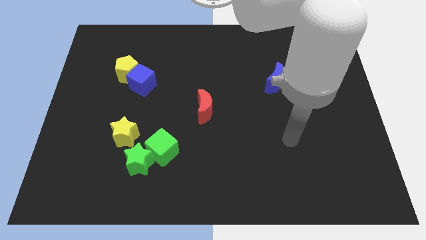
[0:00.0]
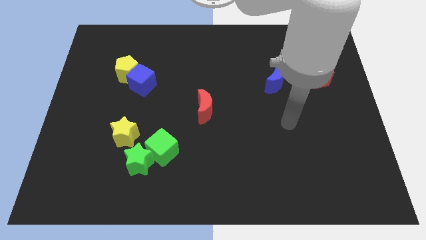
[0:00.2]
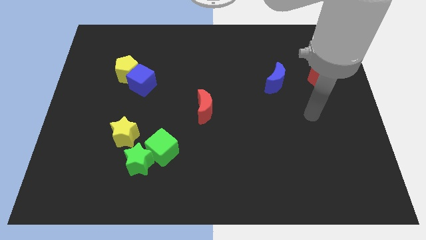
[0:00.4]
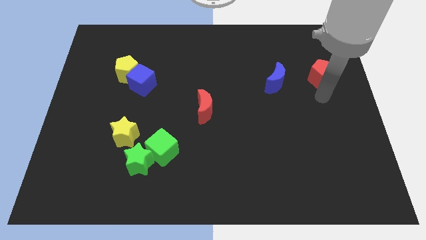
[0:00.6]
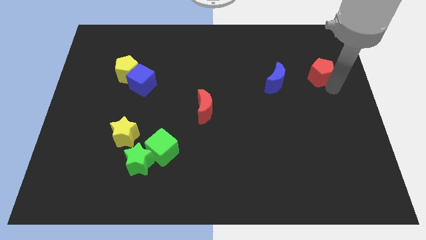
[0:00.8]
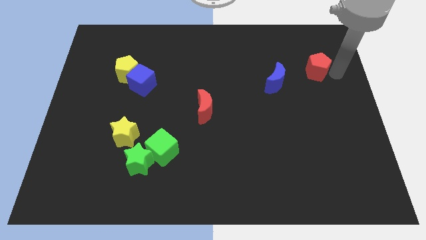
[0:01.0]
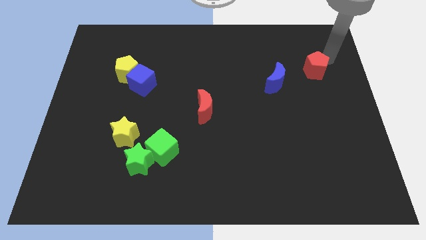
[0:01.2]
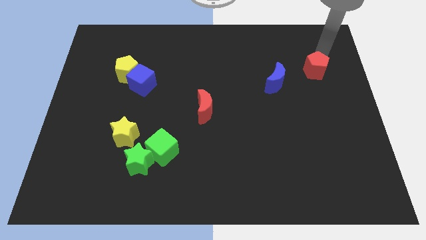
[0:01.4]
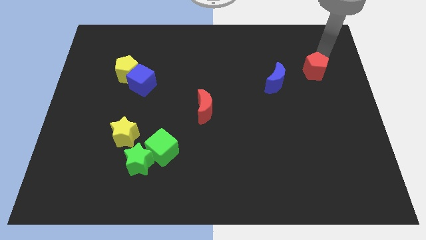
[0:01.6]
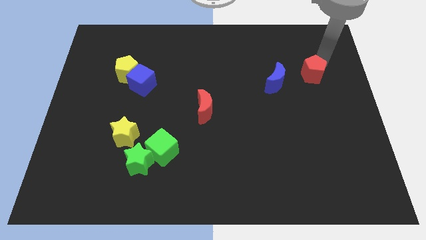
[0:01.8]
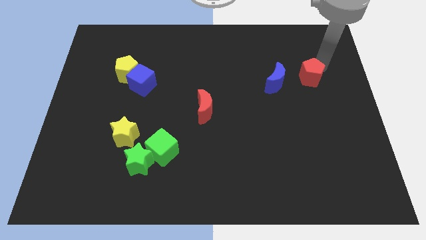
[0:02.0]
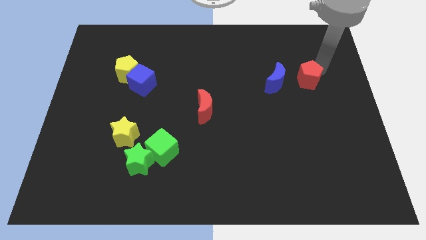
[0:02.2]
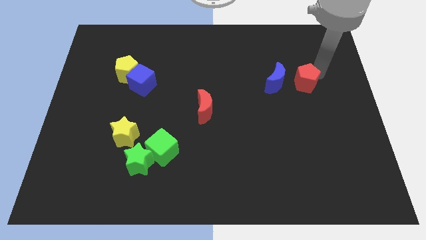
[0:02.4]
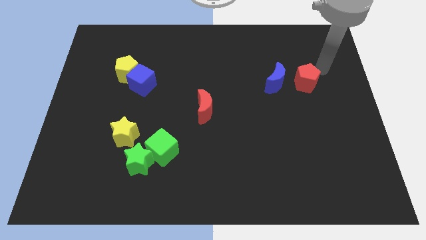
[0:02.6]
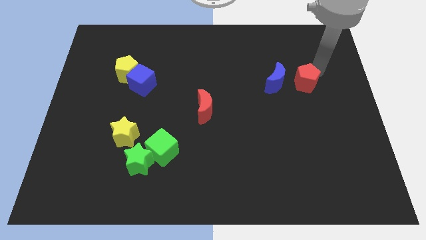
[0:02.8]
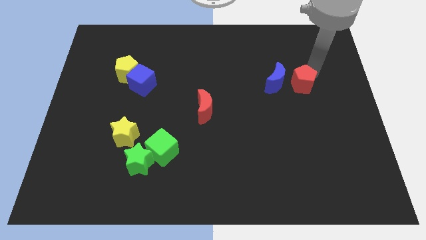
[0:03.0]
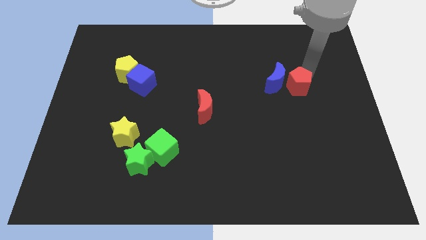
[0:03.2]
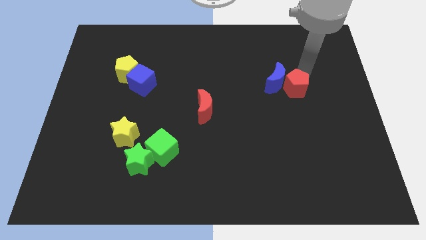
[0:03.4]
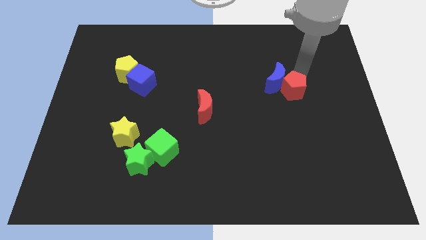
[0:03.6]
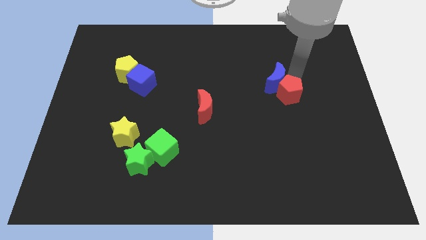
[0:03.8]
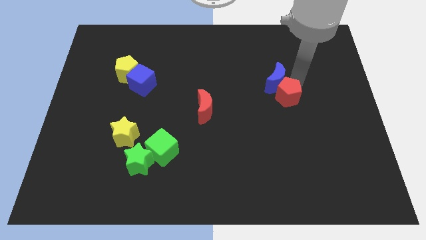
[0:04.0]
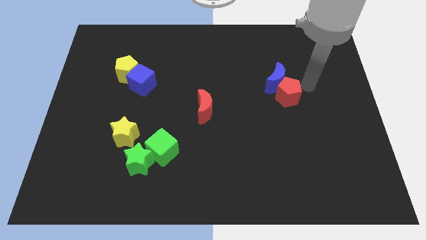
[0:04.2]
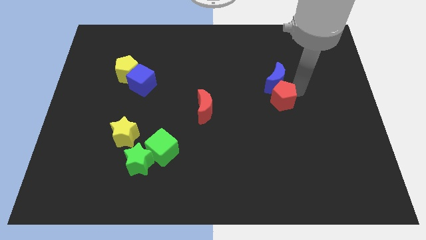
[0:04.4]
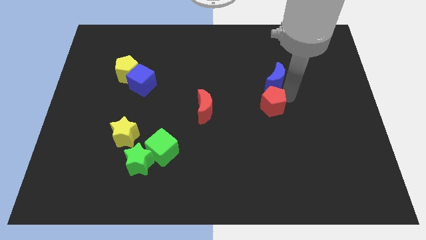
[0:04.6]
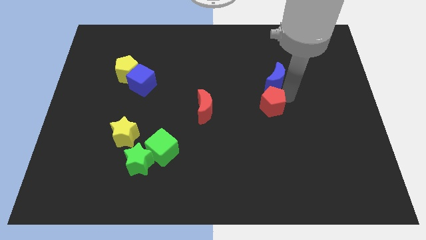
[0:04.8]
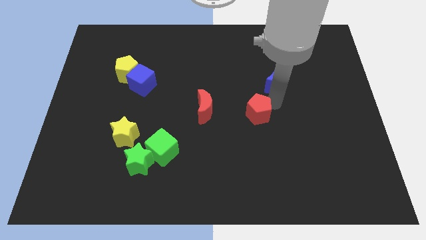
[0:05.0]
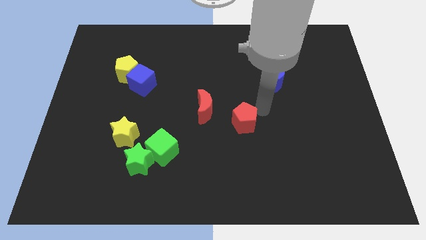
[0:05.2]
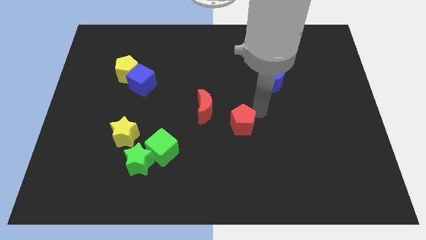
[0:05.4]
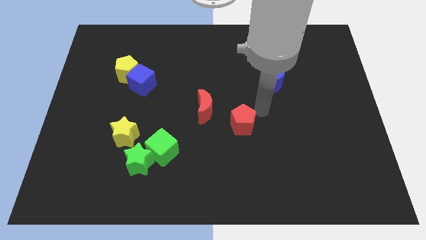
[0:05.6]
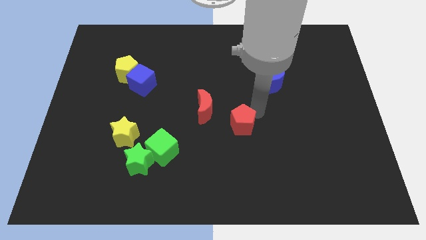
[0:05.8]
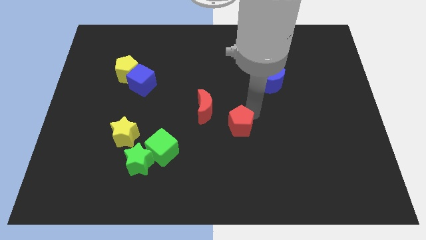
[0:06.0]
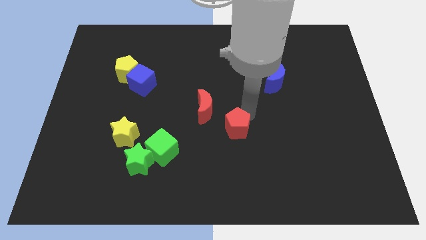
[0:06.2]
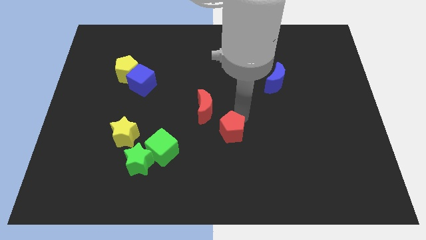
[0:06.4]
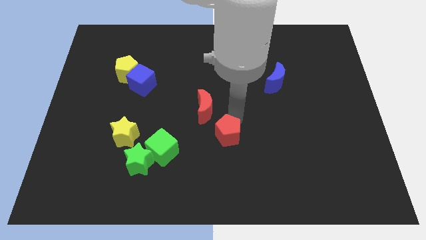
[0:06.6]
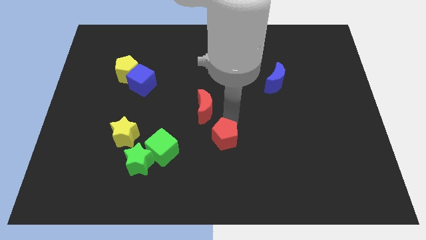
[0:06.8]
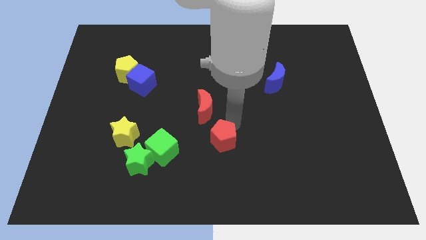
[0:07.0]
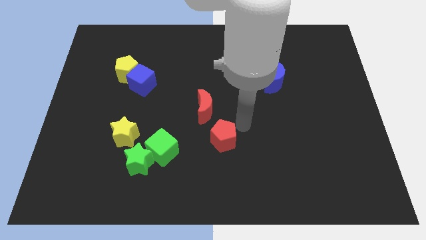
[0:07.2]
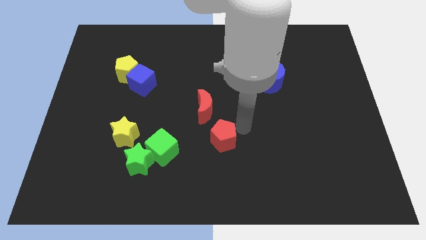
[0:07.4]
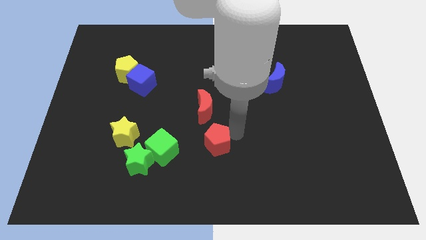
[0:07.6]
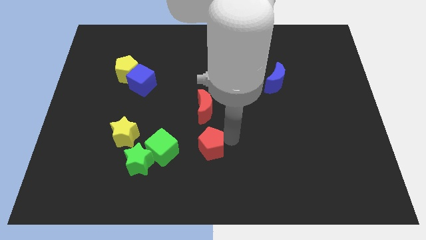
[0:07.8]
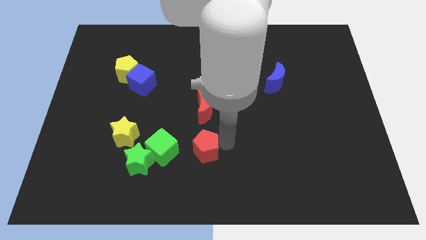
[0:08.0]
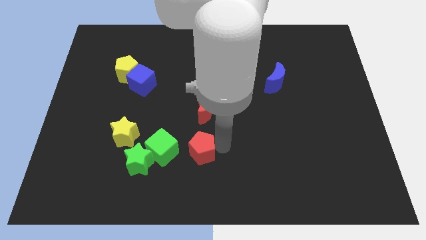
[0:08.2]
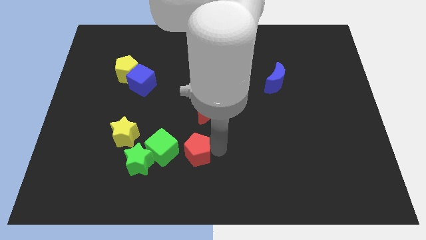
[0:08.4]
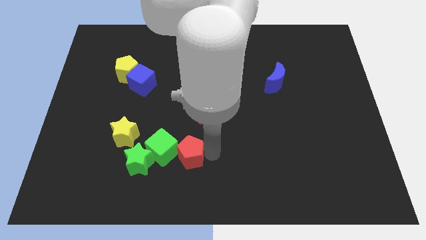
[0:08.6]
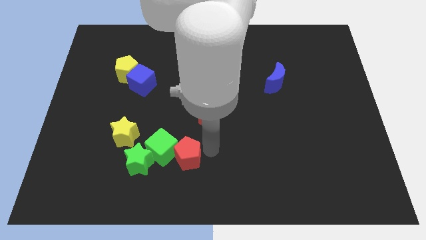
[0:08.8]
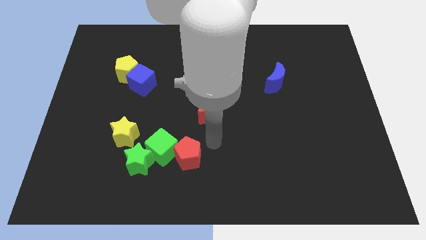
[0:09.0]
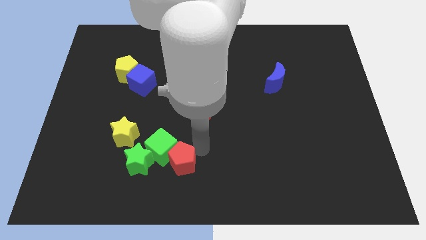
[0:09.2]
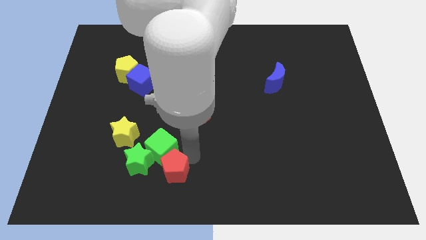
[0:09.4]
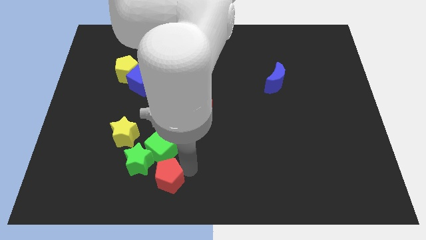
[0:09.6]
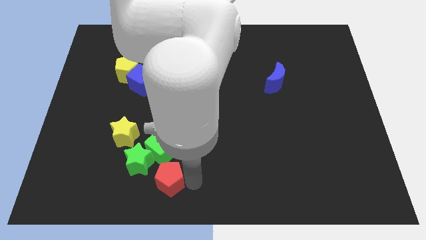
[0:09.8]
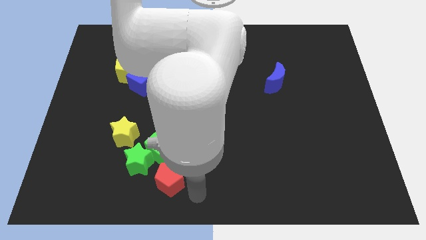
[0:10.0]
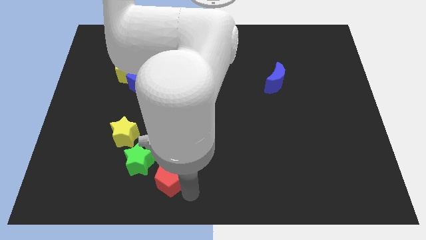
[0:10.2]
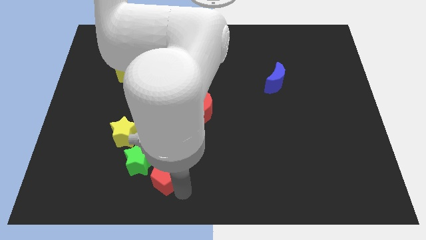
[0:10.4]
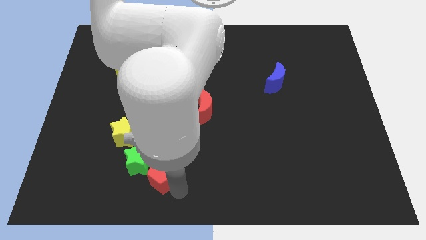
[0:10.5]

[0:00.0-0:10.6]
put the red pentagon towards the green star

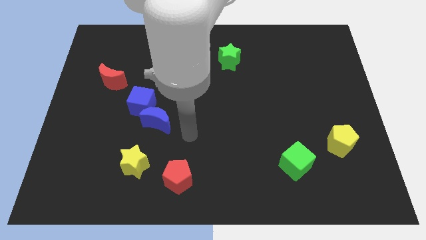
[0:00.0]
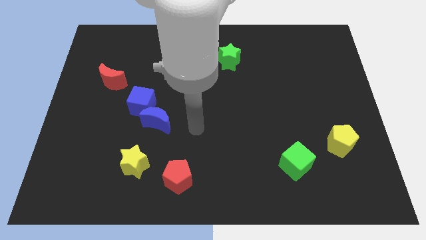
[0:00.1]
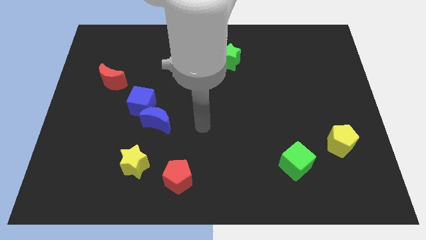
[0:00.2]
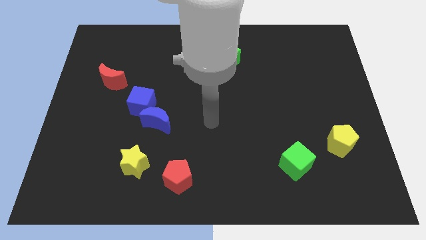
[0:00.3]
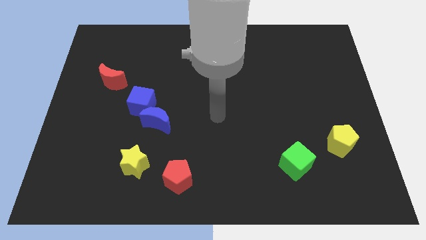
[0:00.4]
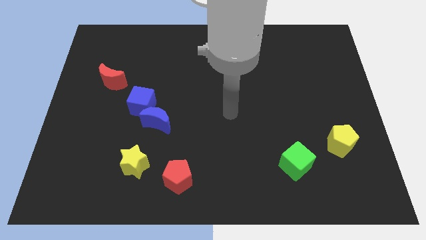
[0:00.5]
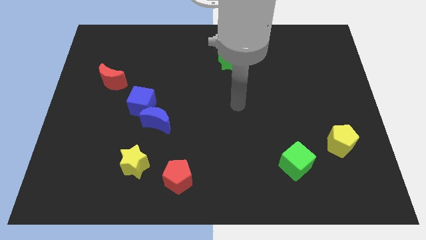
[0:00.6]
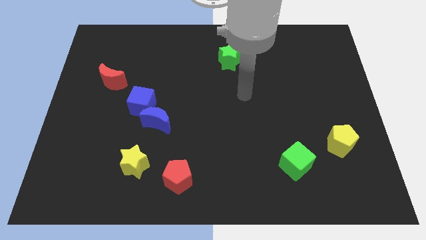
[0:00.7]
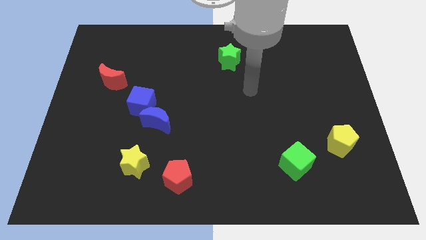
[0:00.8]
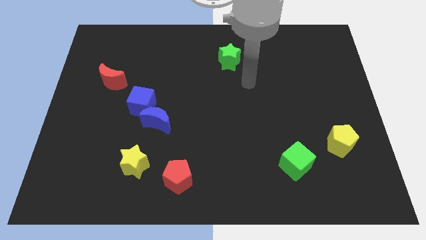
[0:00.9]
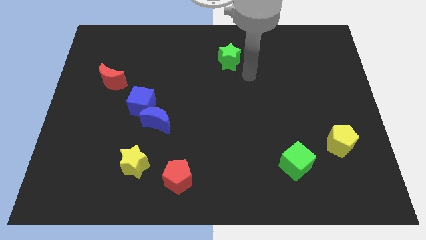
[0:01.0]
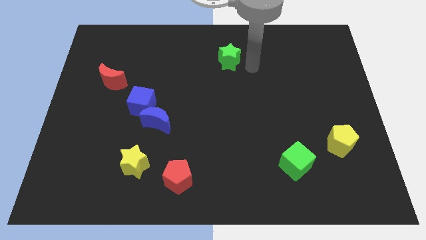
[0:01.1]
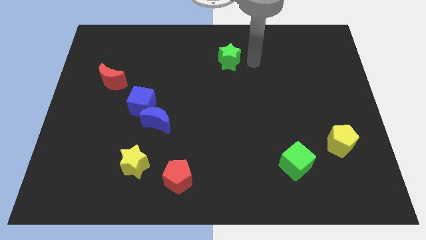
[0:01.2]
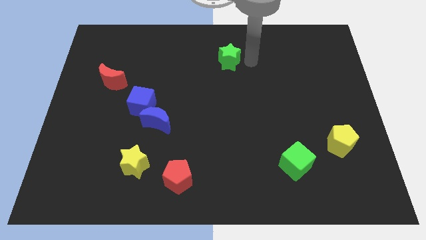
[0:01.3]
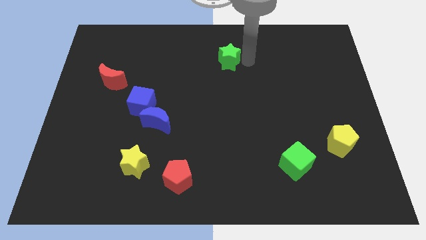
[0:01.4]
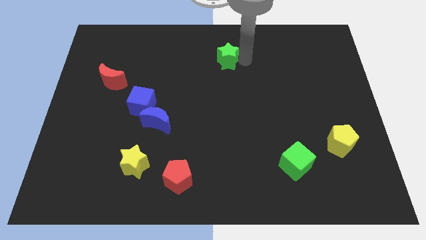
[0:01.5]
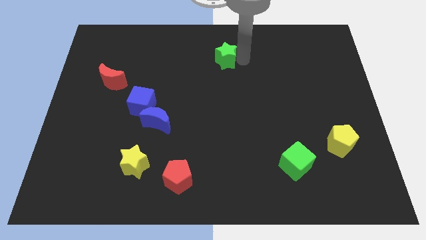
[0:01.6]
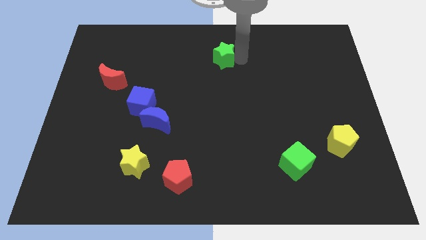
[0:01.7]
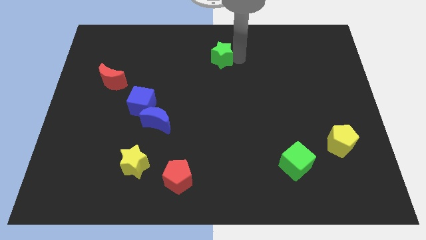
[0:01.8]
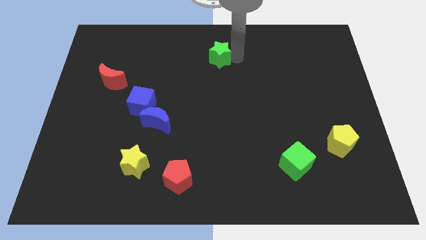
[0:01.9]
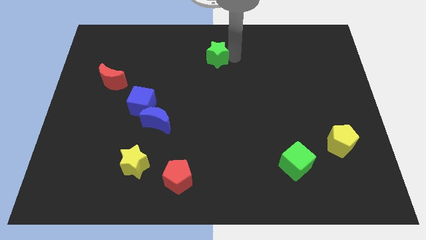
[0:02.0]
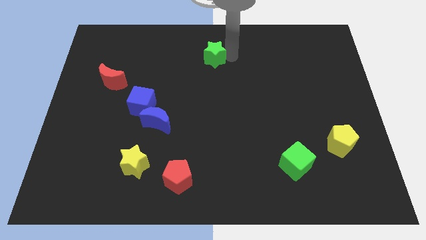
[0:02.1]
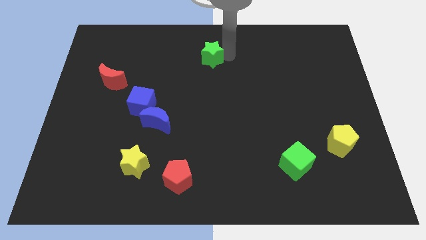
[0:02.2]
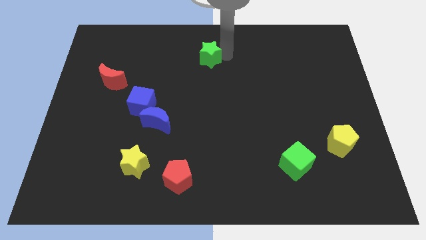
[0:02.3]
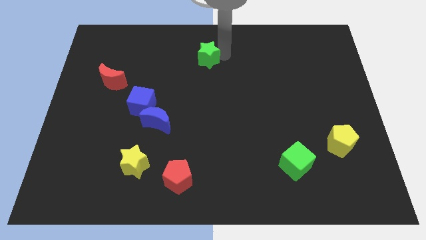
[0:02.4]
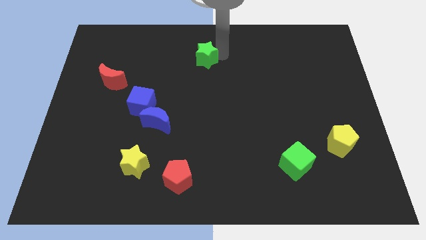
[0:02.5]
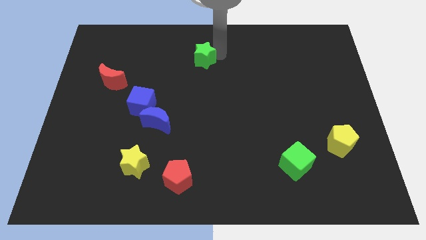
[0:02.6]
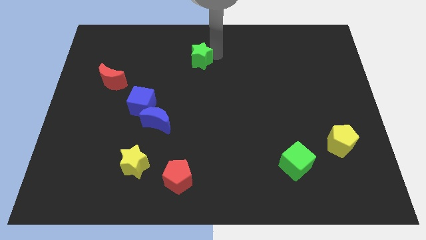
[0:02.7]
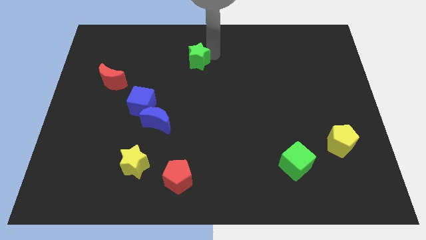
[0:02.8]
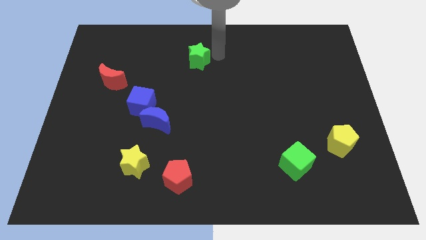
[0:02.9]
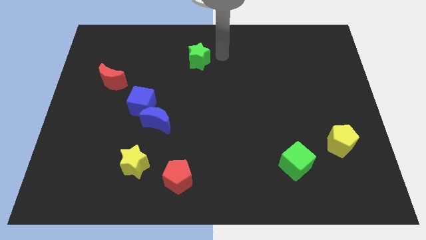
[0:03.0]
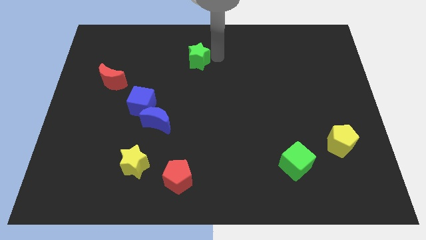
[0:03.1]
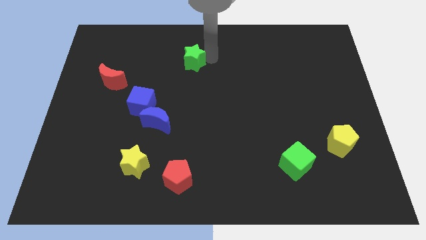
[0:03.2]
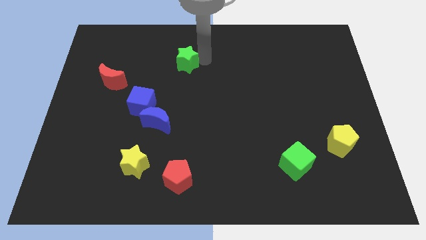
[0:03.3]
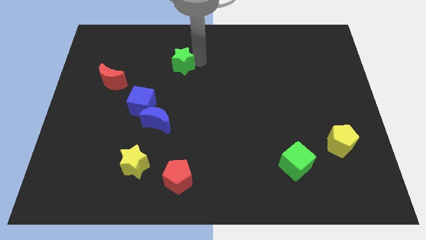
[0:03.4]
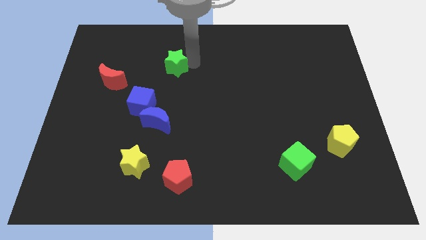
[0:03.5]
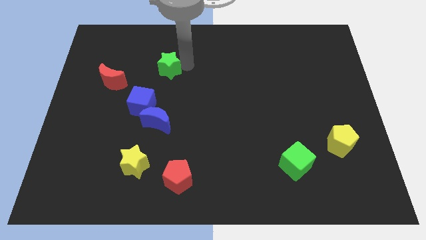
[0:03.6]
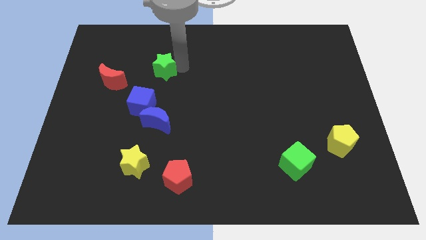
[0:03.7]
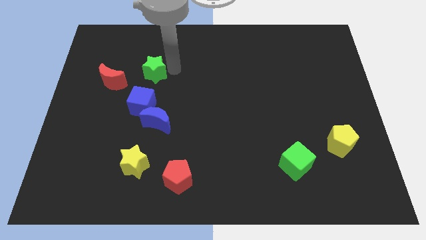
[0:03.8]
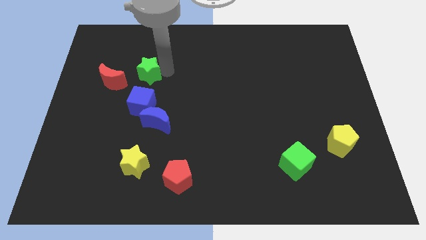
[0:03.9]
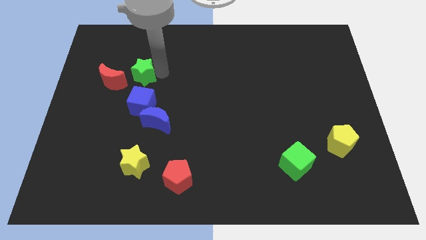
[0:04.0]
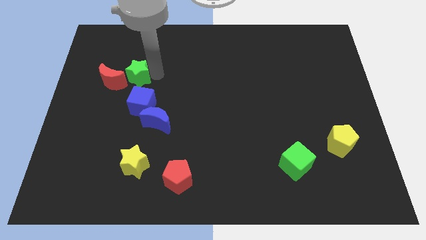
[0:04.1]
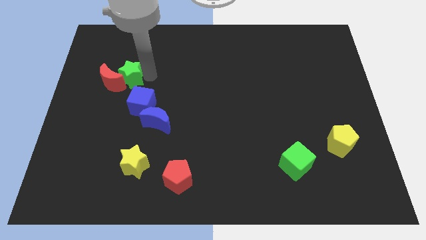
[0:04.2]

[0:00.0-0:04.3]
slide the green star towards the red moon
